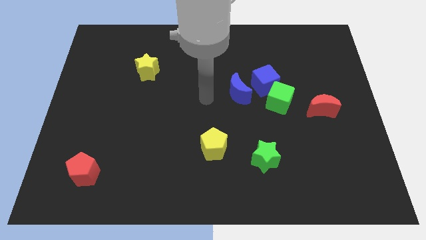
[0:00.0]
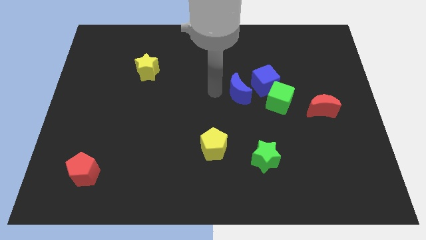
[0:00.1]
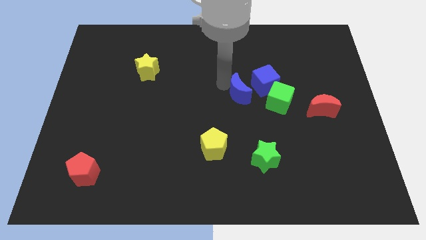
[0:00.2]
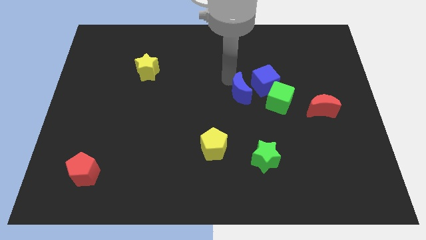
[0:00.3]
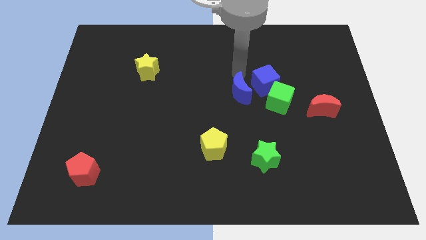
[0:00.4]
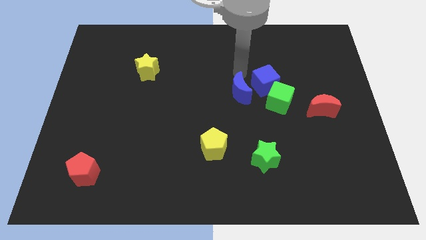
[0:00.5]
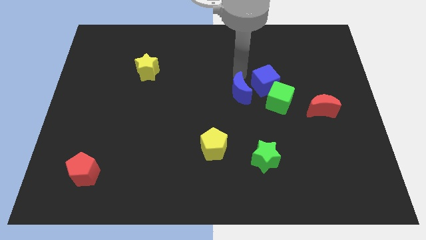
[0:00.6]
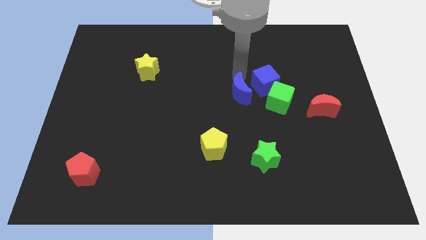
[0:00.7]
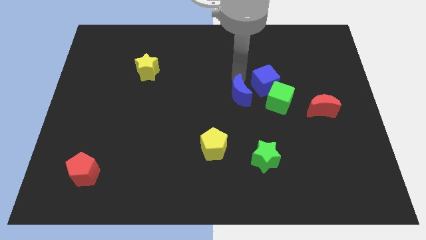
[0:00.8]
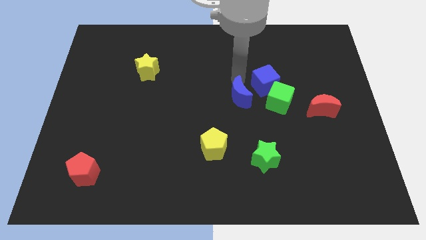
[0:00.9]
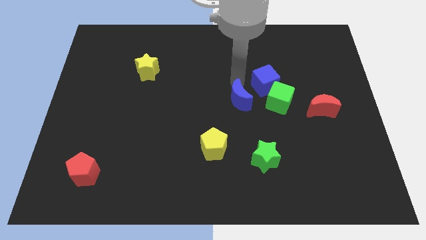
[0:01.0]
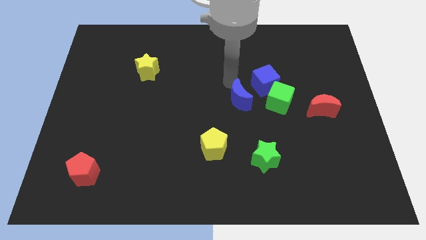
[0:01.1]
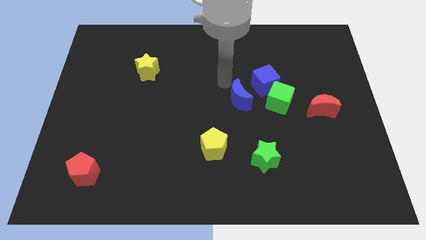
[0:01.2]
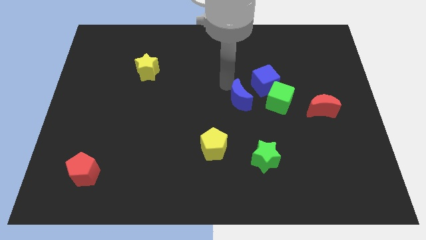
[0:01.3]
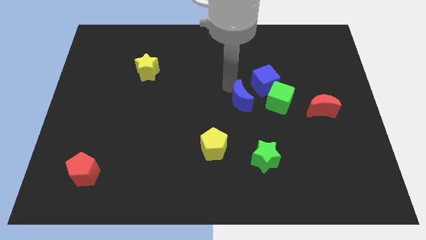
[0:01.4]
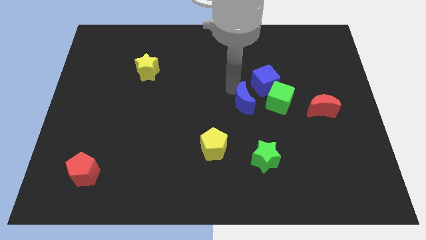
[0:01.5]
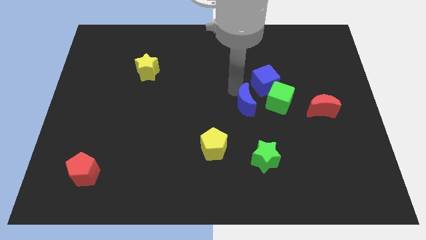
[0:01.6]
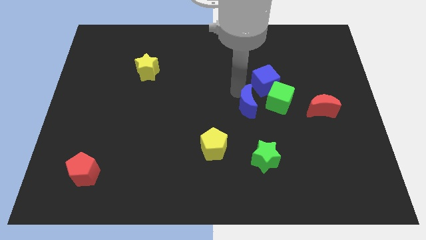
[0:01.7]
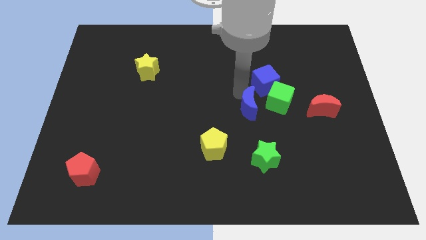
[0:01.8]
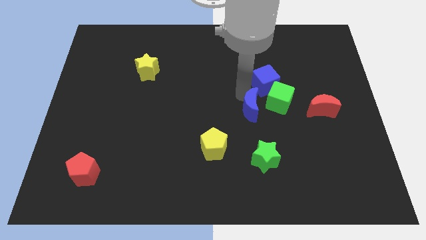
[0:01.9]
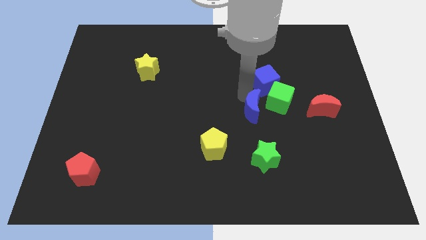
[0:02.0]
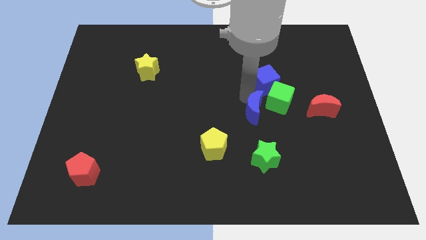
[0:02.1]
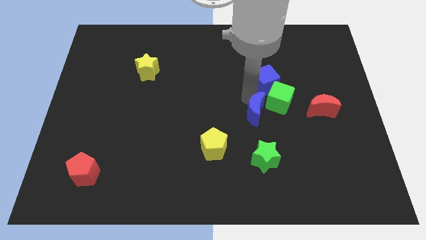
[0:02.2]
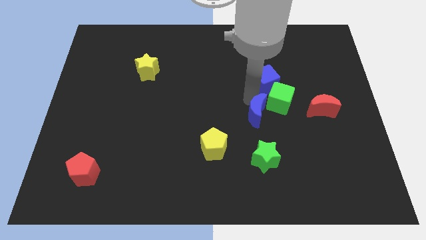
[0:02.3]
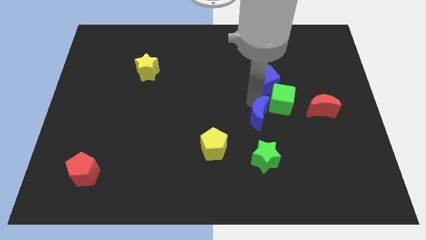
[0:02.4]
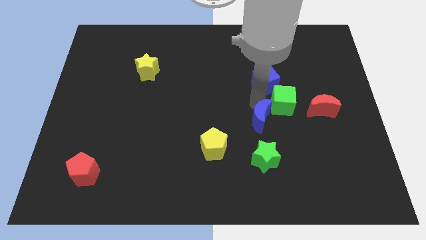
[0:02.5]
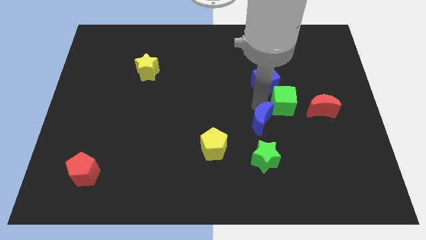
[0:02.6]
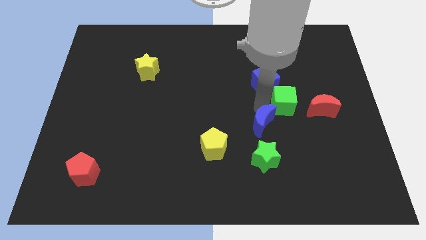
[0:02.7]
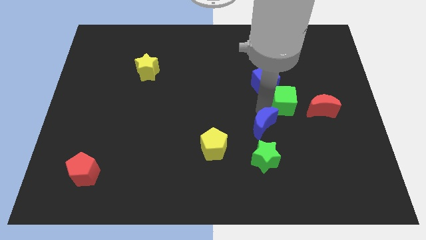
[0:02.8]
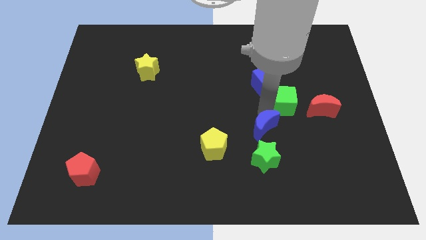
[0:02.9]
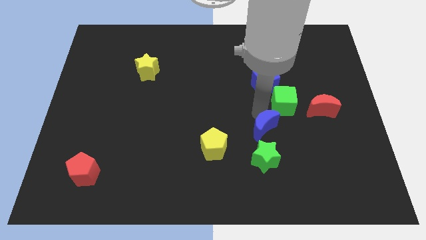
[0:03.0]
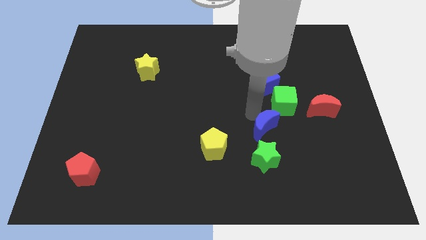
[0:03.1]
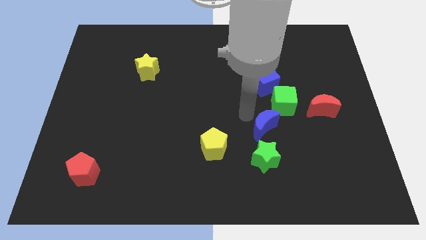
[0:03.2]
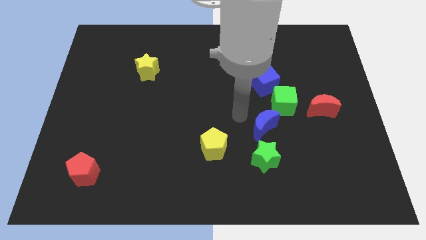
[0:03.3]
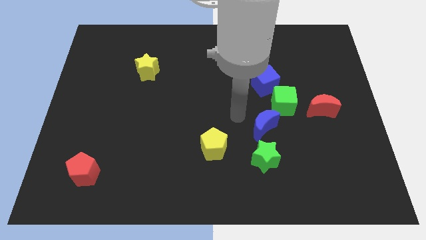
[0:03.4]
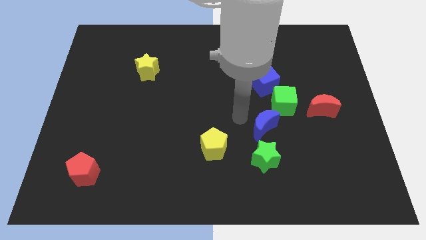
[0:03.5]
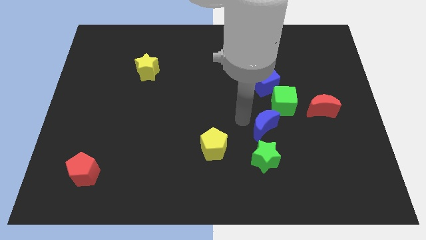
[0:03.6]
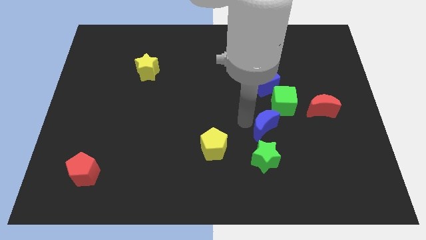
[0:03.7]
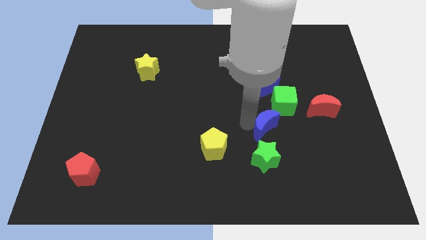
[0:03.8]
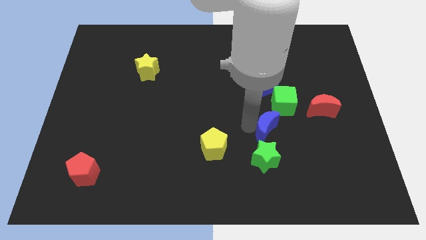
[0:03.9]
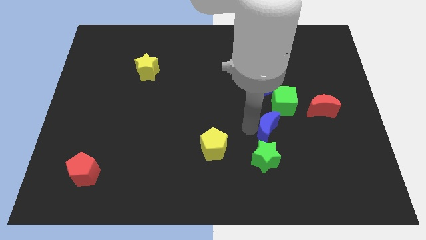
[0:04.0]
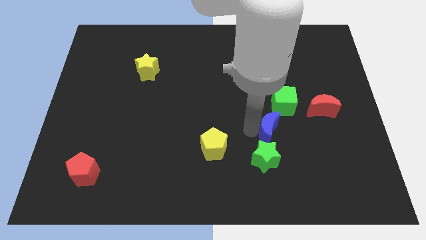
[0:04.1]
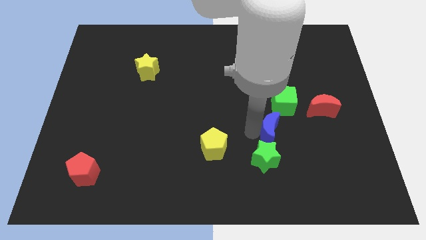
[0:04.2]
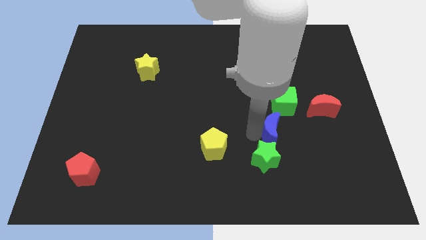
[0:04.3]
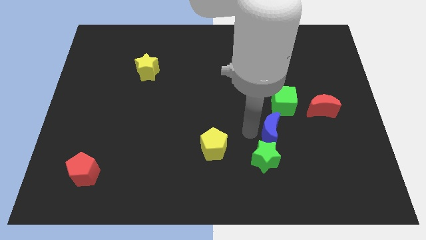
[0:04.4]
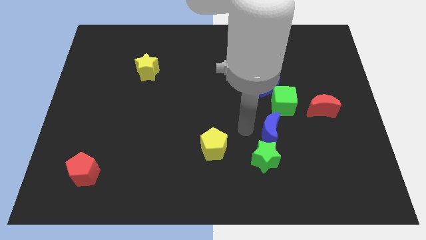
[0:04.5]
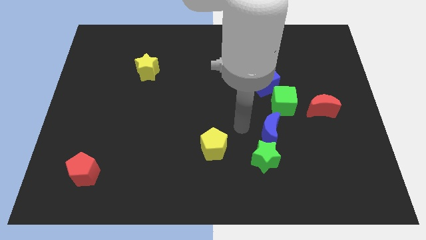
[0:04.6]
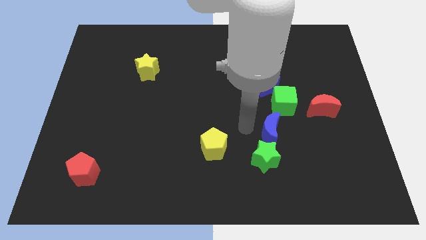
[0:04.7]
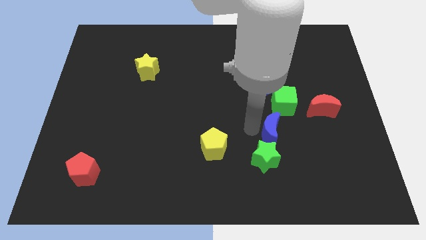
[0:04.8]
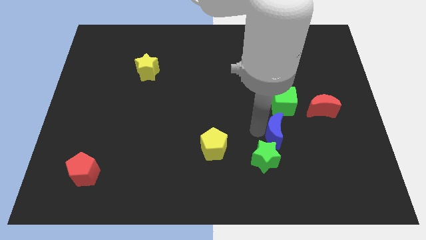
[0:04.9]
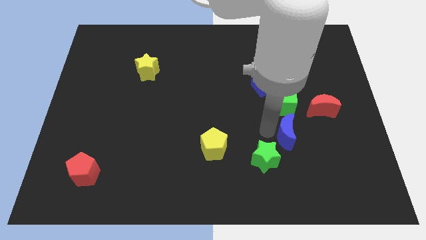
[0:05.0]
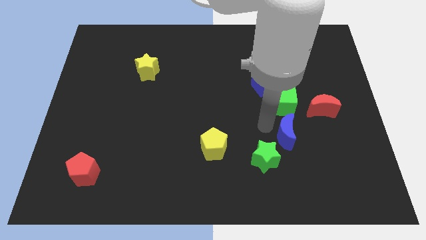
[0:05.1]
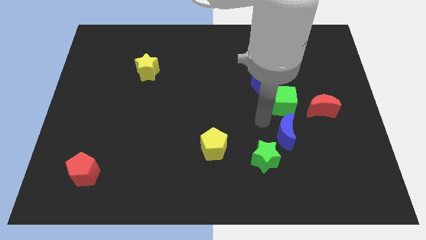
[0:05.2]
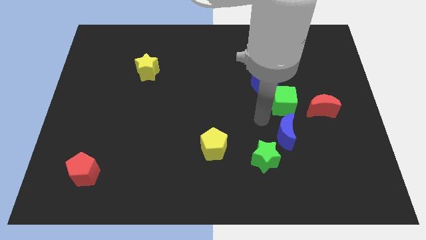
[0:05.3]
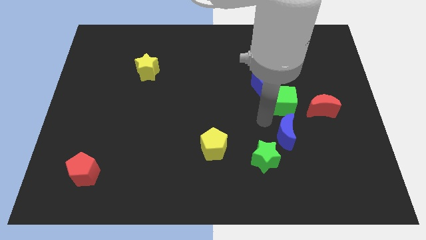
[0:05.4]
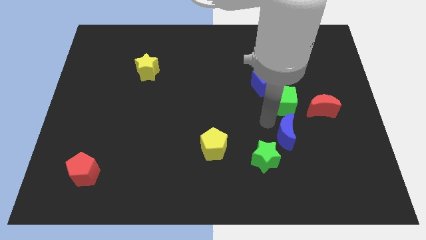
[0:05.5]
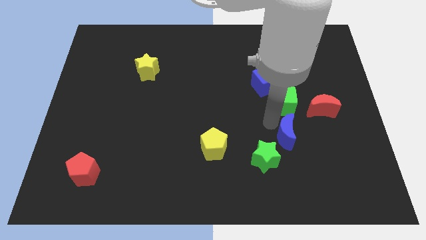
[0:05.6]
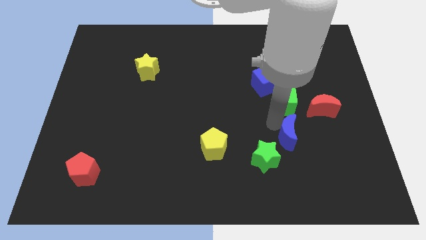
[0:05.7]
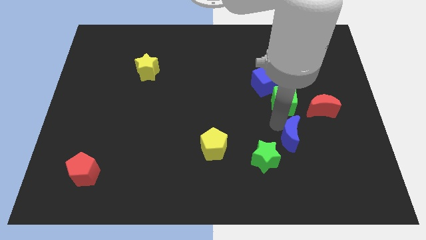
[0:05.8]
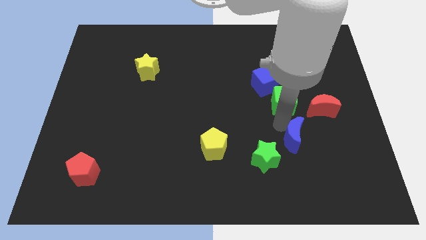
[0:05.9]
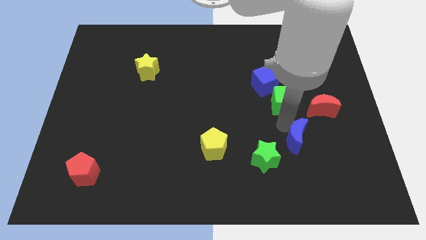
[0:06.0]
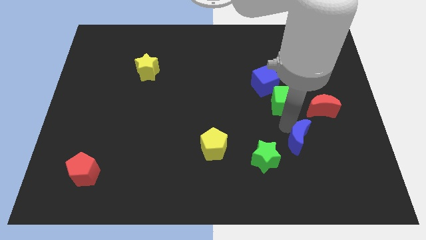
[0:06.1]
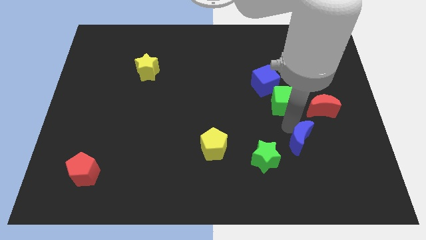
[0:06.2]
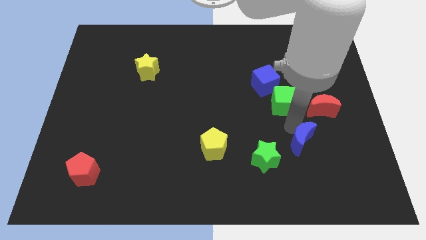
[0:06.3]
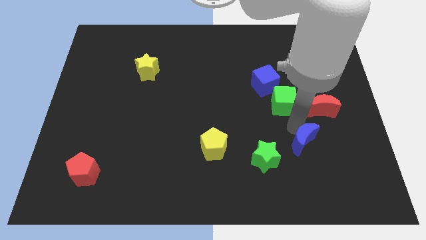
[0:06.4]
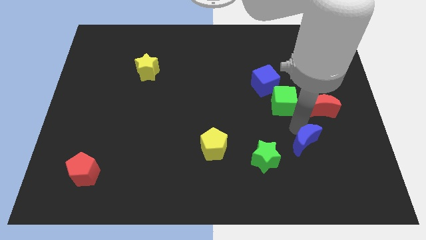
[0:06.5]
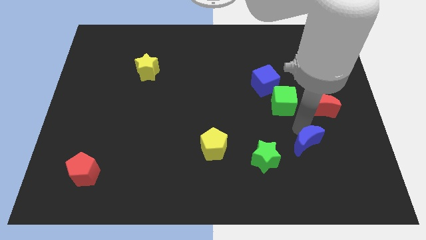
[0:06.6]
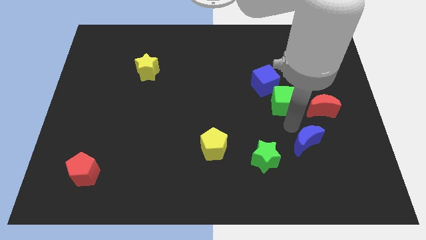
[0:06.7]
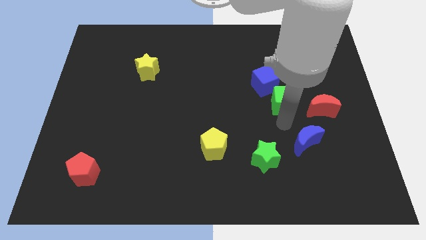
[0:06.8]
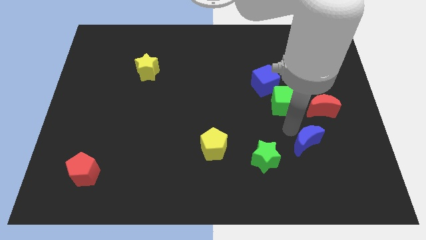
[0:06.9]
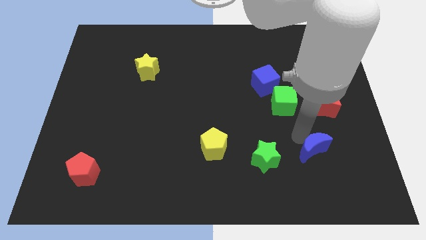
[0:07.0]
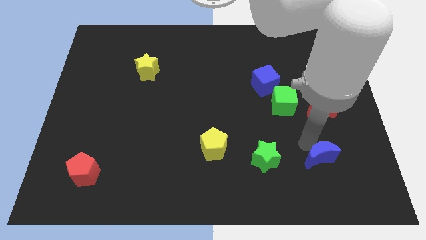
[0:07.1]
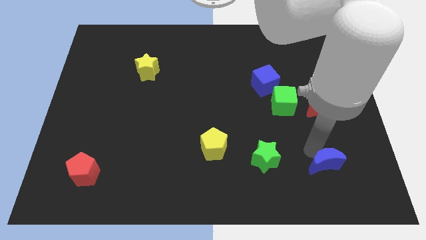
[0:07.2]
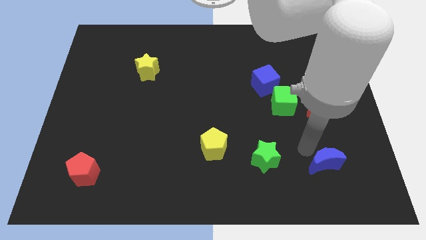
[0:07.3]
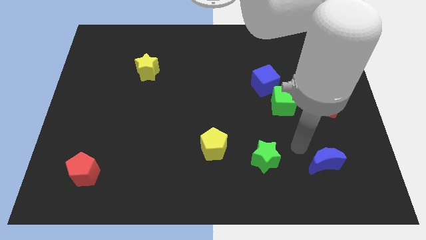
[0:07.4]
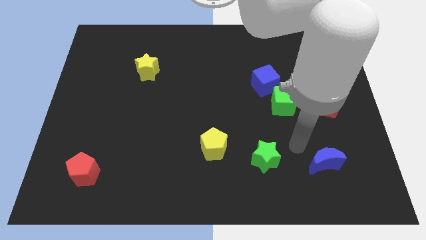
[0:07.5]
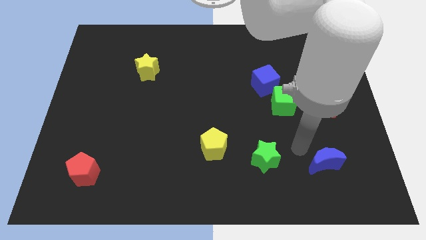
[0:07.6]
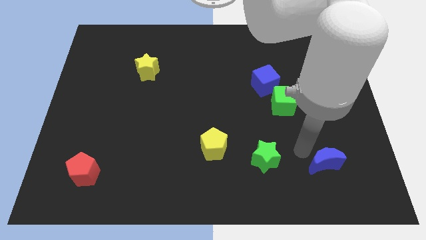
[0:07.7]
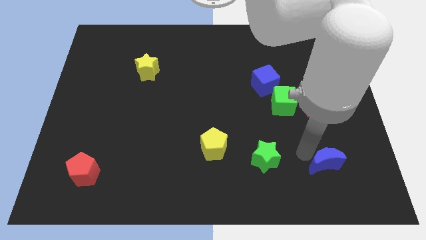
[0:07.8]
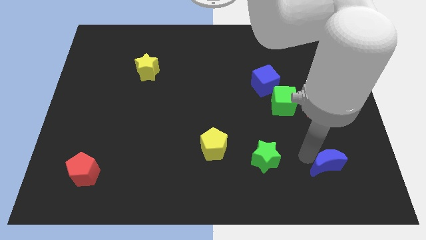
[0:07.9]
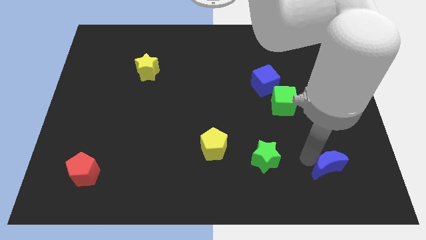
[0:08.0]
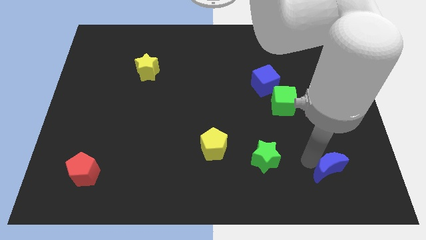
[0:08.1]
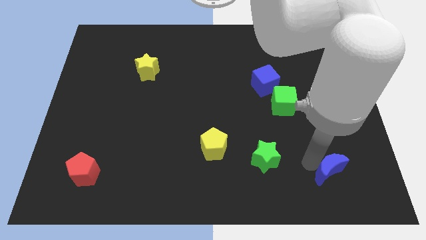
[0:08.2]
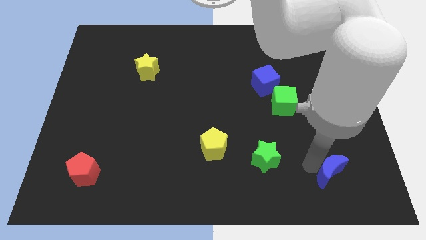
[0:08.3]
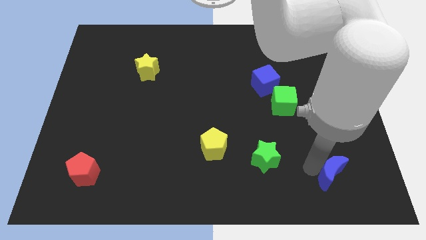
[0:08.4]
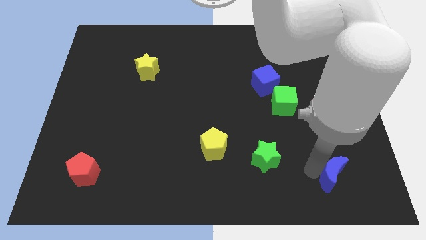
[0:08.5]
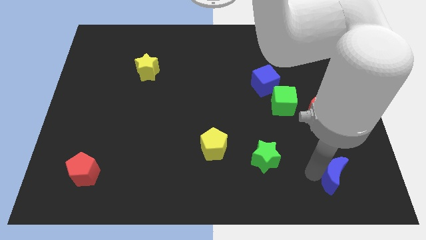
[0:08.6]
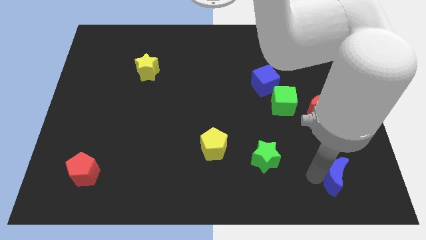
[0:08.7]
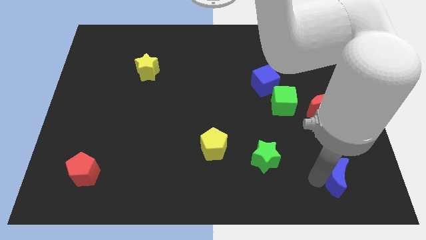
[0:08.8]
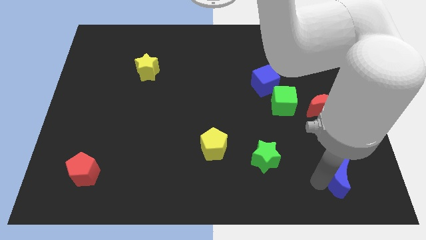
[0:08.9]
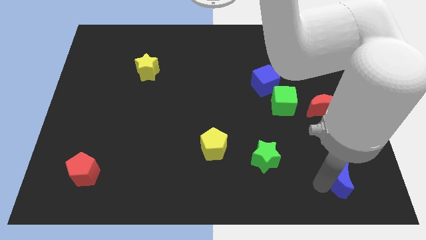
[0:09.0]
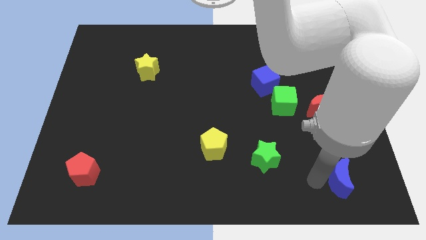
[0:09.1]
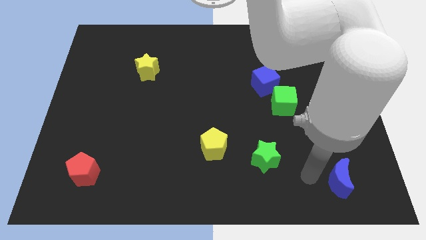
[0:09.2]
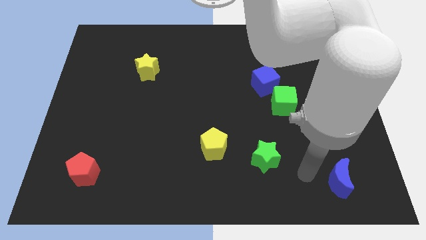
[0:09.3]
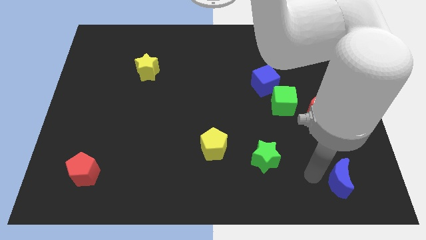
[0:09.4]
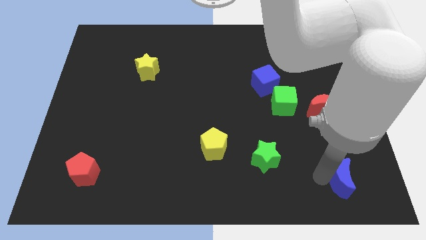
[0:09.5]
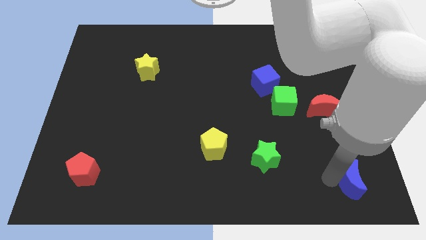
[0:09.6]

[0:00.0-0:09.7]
push the blue moon to the bottom right corner
